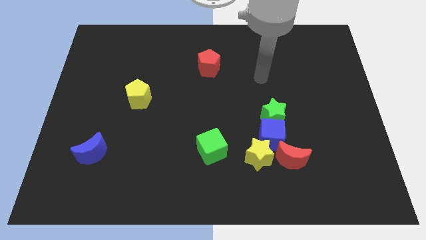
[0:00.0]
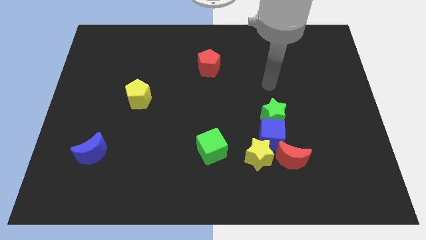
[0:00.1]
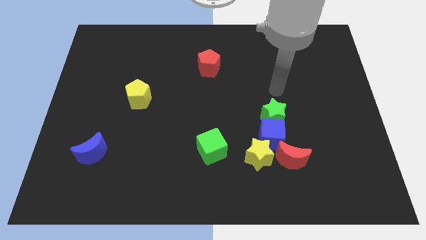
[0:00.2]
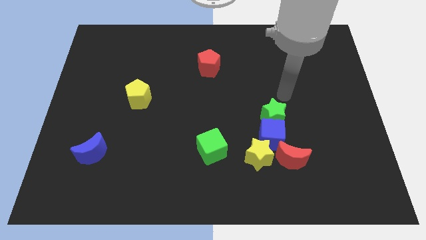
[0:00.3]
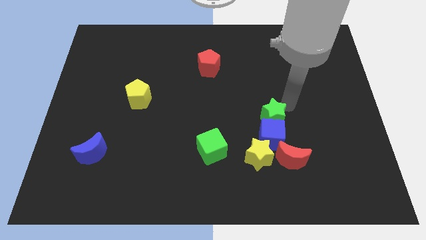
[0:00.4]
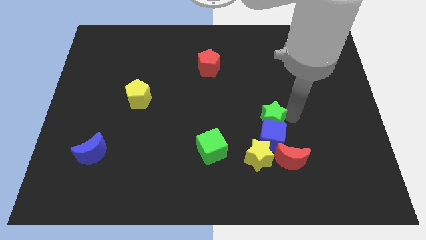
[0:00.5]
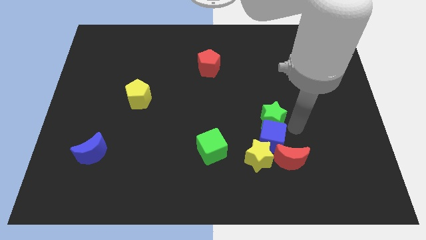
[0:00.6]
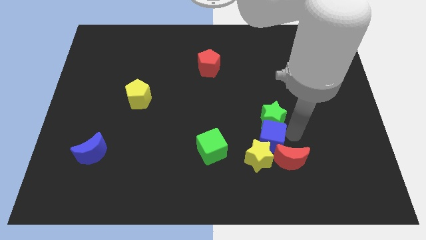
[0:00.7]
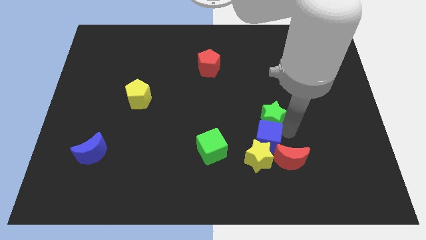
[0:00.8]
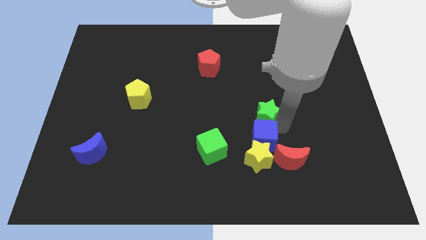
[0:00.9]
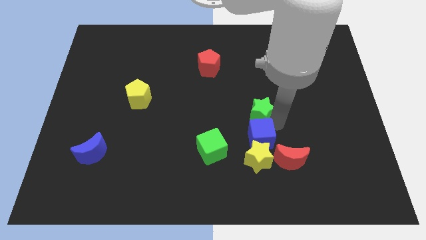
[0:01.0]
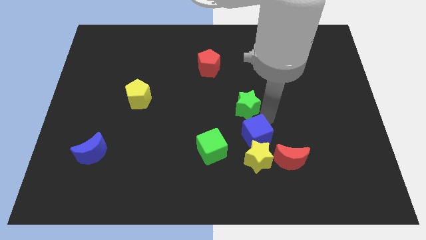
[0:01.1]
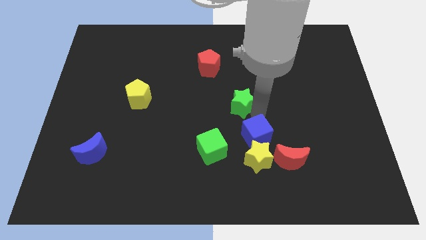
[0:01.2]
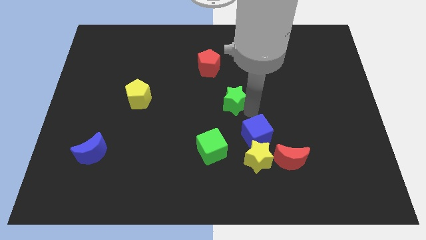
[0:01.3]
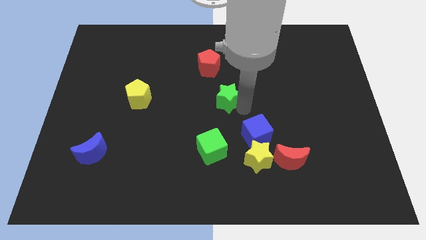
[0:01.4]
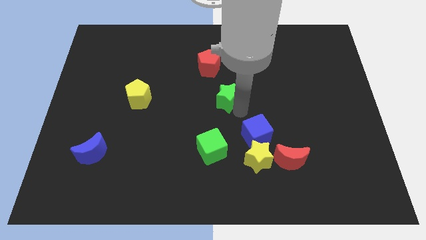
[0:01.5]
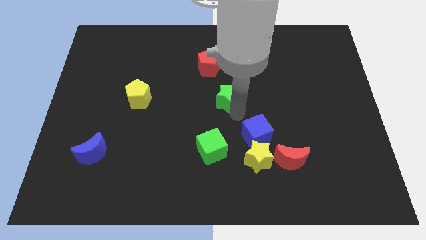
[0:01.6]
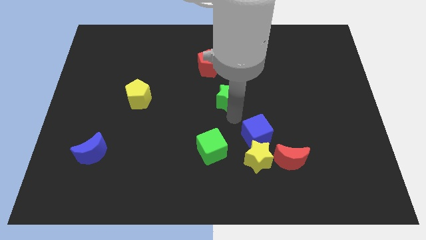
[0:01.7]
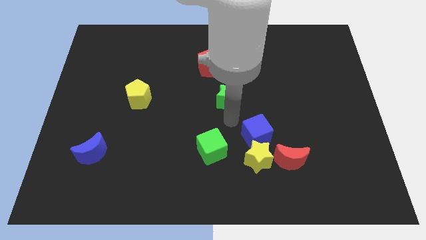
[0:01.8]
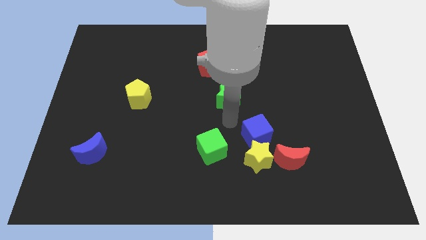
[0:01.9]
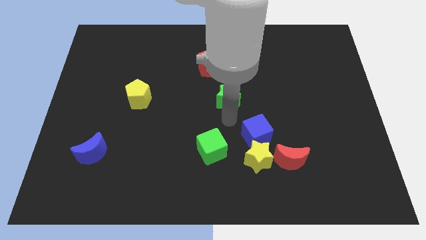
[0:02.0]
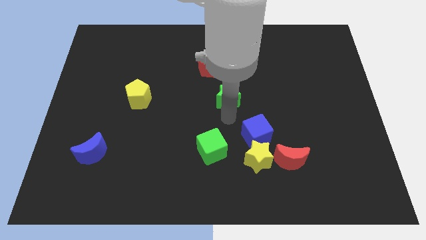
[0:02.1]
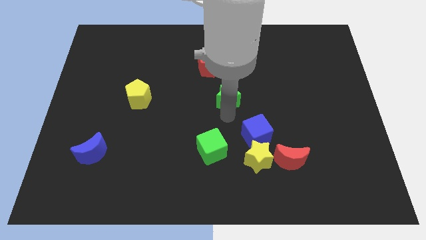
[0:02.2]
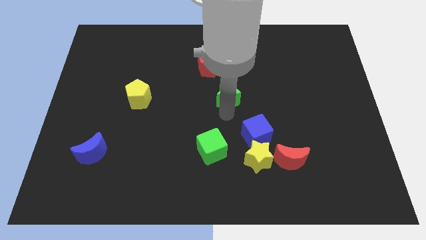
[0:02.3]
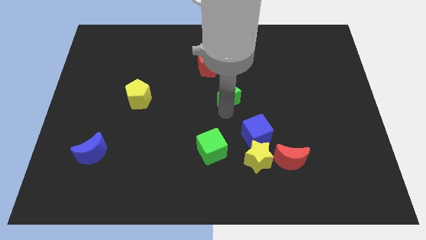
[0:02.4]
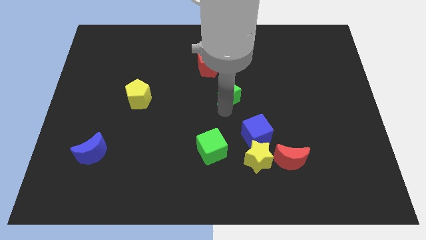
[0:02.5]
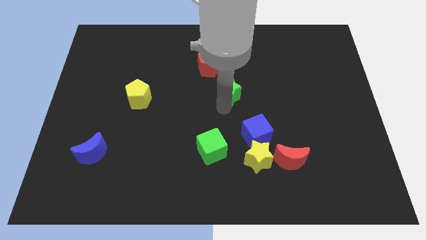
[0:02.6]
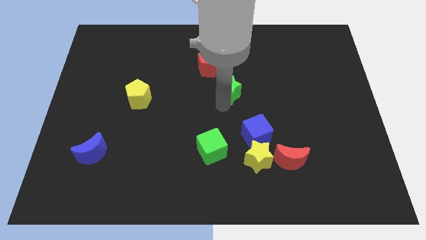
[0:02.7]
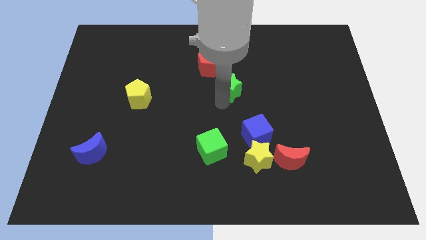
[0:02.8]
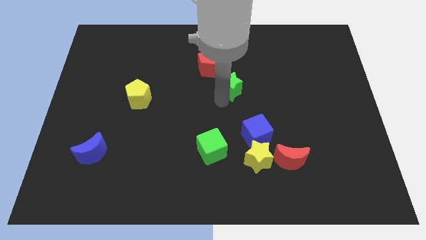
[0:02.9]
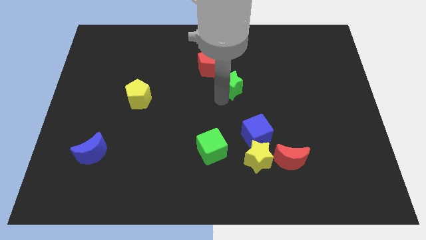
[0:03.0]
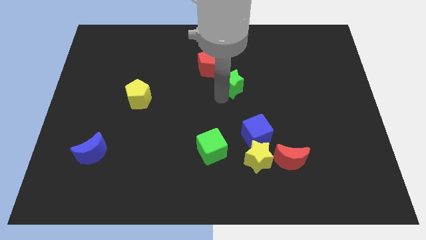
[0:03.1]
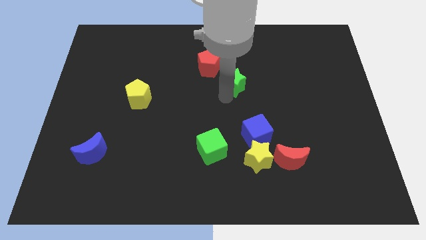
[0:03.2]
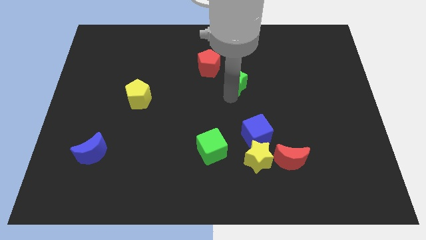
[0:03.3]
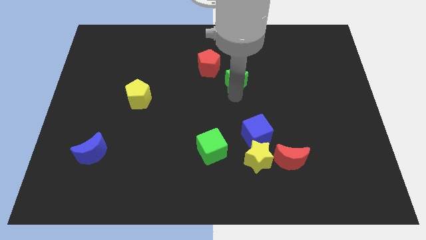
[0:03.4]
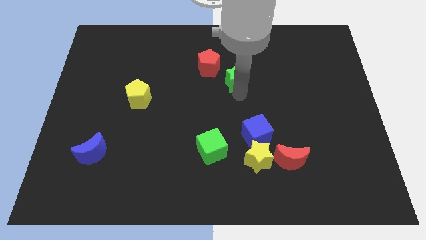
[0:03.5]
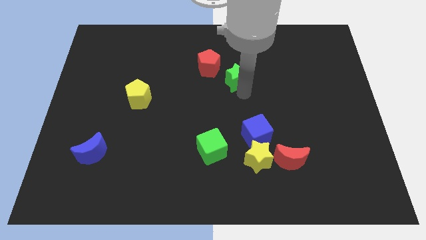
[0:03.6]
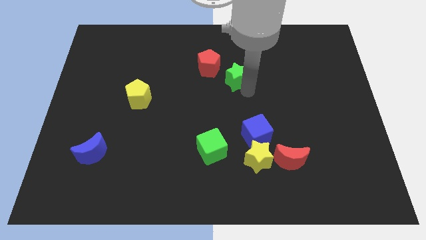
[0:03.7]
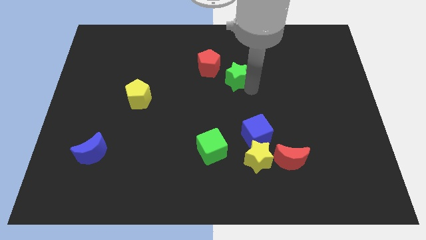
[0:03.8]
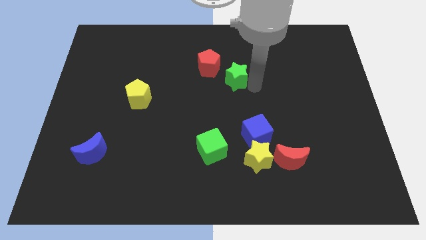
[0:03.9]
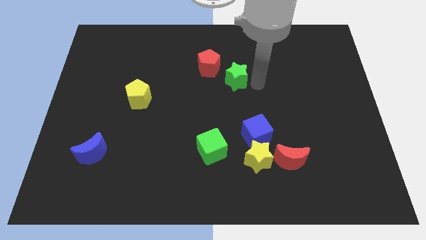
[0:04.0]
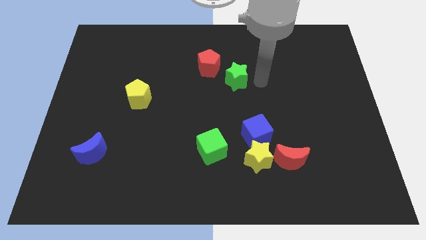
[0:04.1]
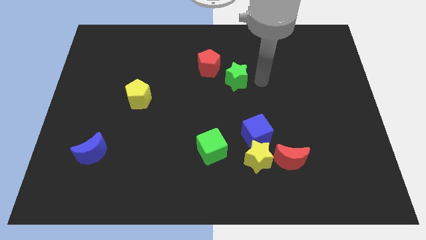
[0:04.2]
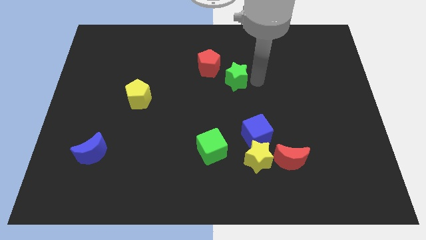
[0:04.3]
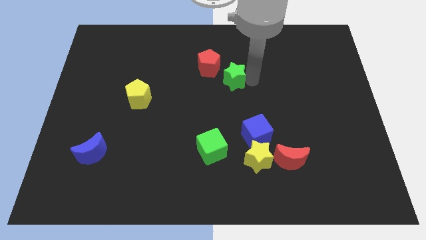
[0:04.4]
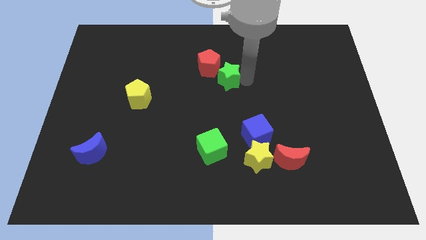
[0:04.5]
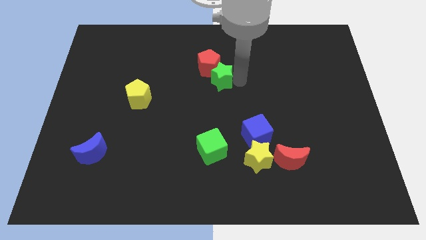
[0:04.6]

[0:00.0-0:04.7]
put the green star close to the red pentagon

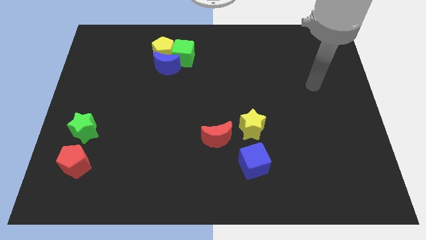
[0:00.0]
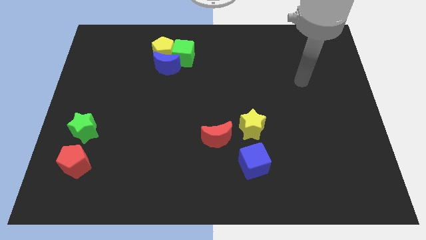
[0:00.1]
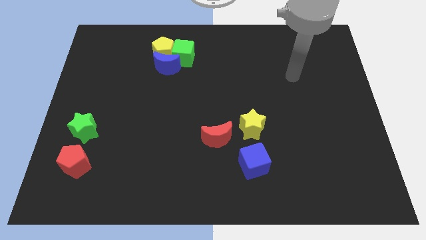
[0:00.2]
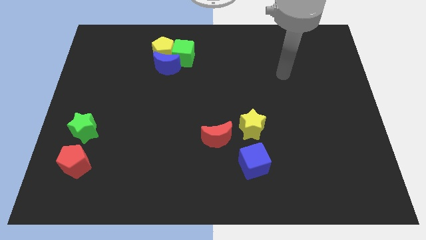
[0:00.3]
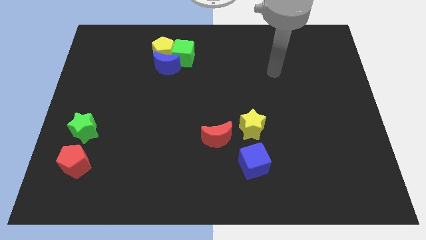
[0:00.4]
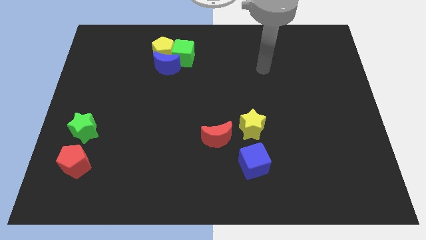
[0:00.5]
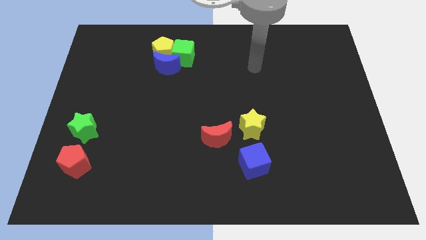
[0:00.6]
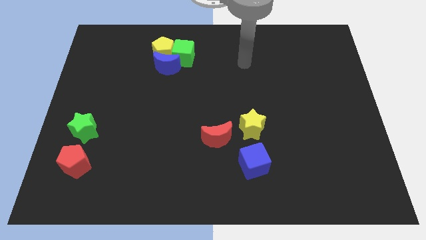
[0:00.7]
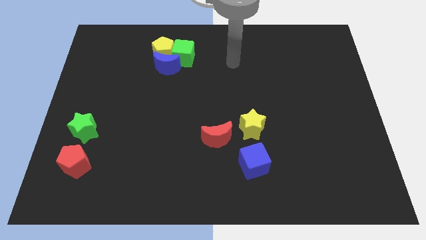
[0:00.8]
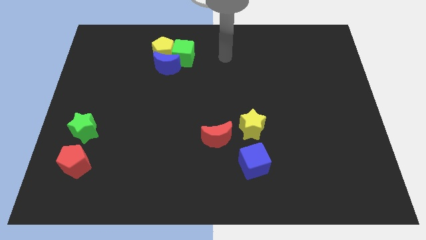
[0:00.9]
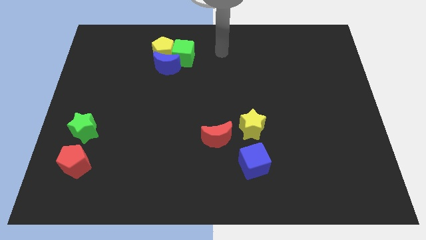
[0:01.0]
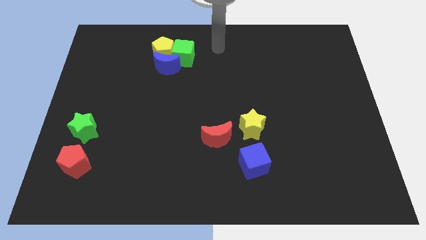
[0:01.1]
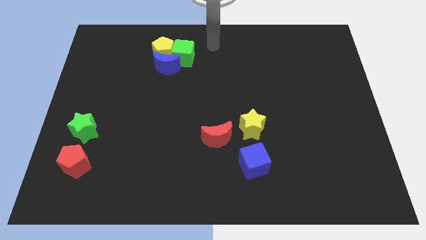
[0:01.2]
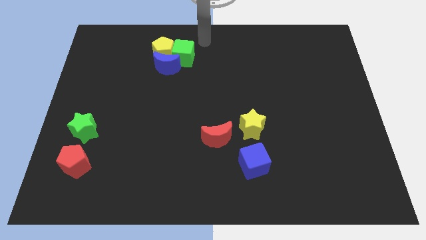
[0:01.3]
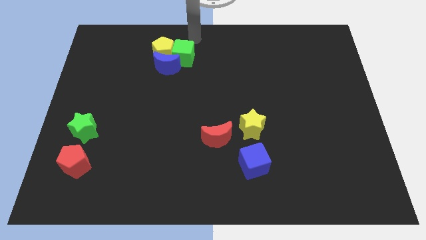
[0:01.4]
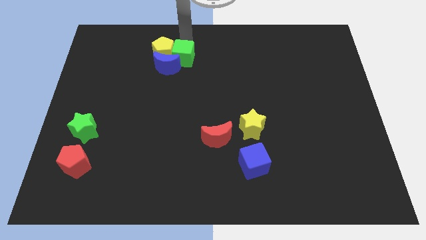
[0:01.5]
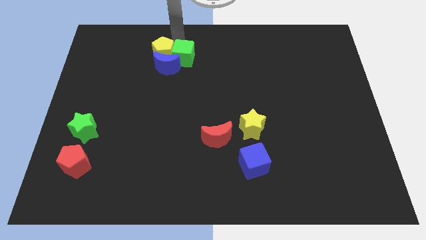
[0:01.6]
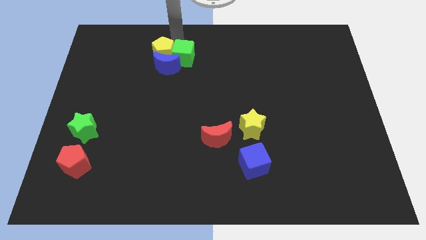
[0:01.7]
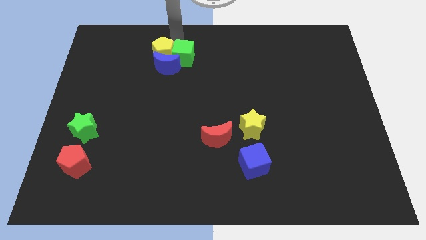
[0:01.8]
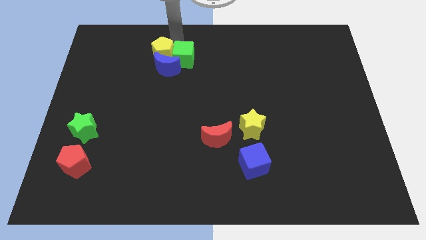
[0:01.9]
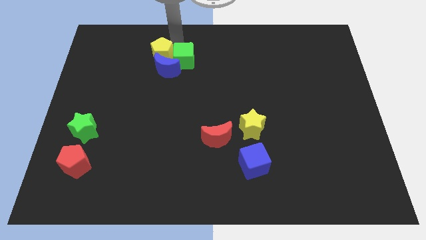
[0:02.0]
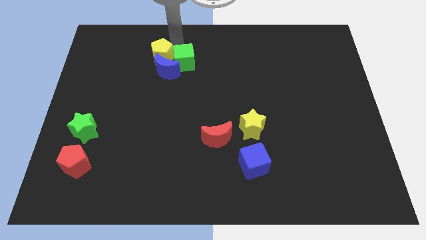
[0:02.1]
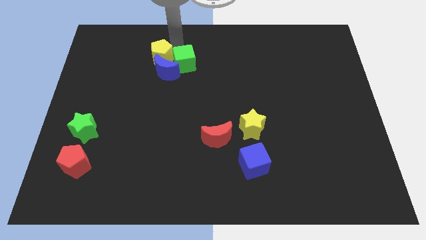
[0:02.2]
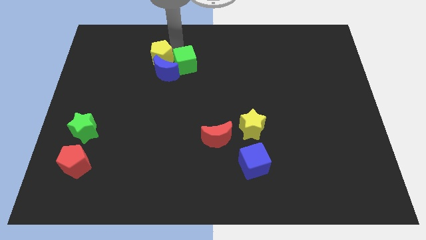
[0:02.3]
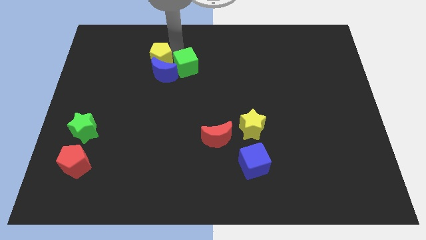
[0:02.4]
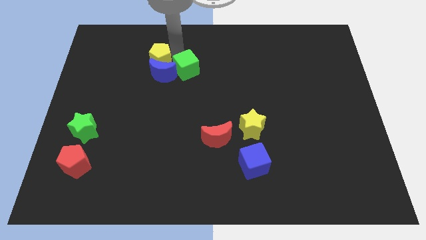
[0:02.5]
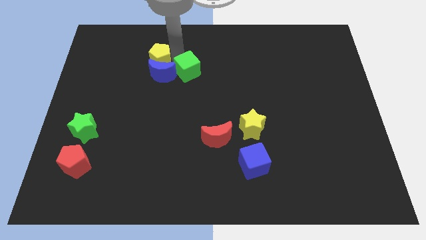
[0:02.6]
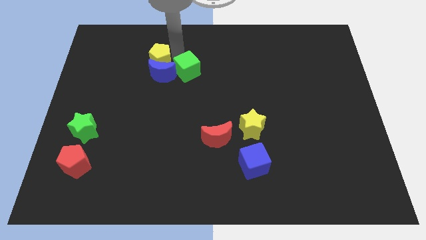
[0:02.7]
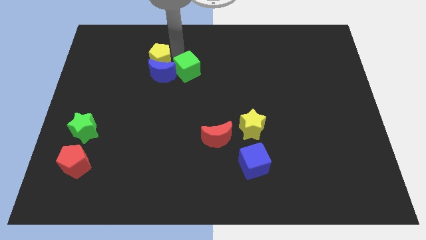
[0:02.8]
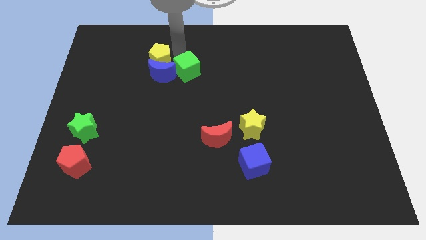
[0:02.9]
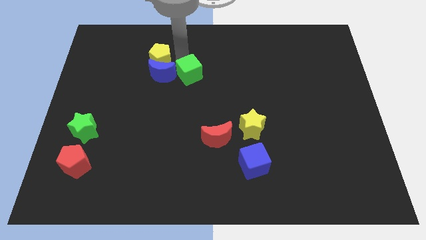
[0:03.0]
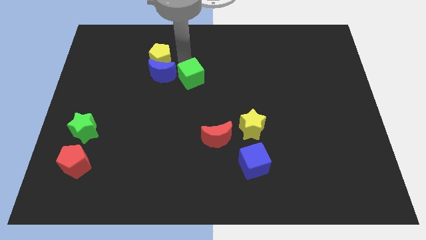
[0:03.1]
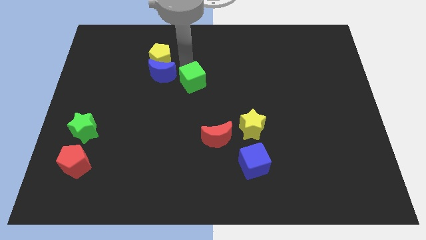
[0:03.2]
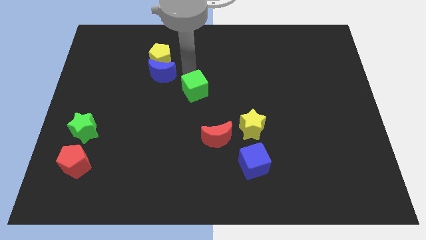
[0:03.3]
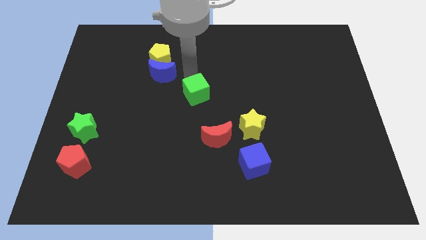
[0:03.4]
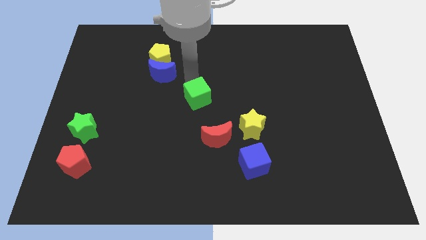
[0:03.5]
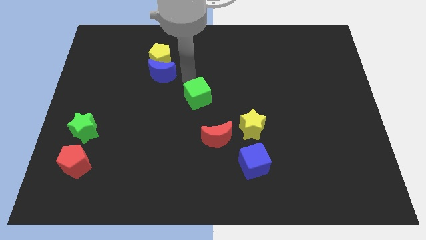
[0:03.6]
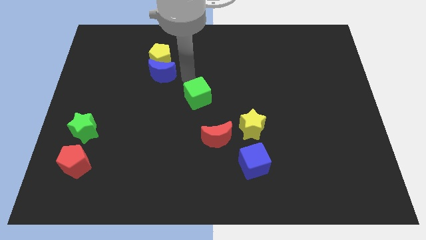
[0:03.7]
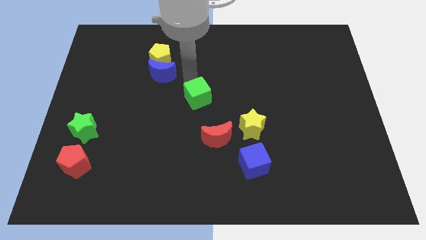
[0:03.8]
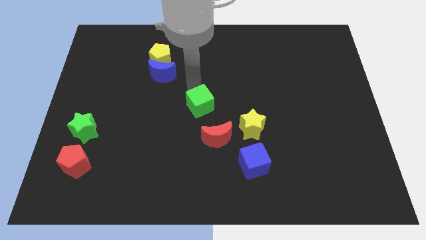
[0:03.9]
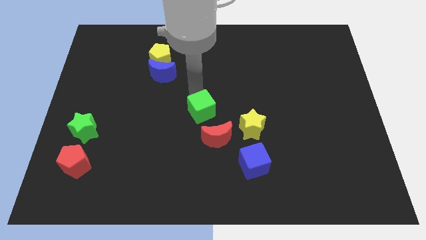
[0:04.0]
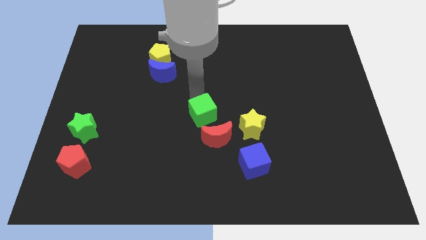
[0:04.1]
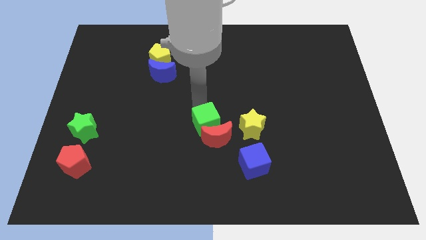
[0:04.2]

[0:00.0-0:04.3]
push the green cube to the red moon
